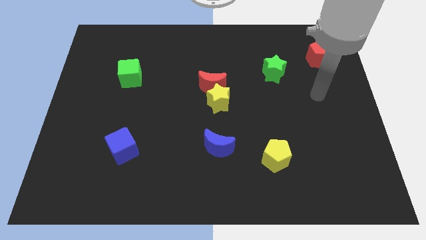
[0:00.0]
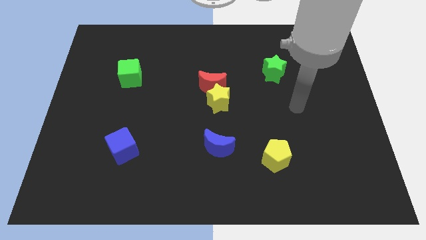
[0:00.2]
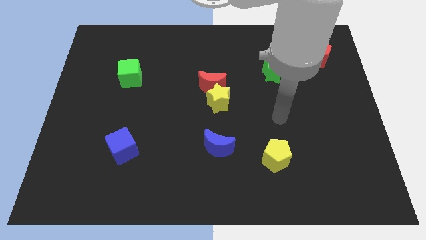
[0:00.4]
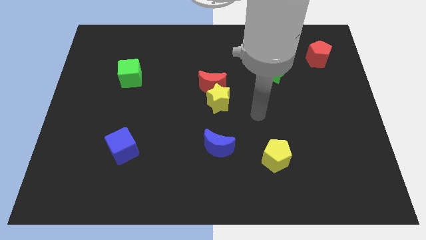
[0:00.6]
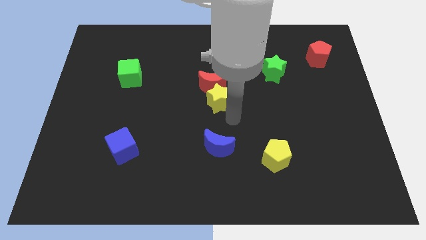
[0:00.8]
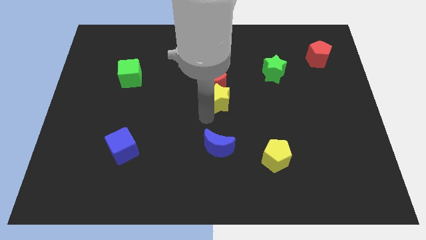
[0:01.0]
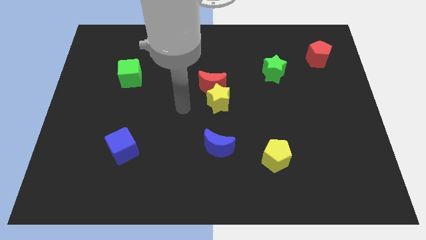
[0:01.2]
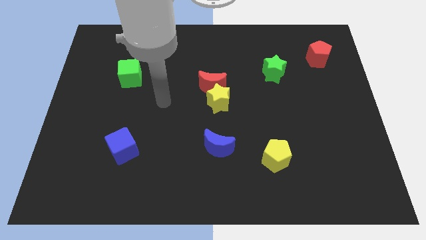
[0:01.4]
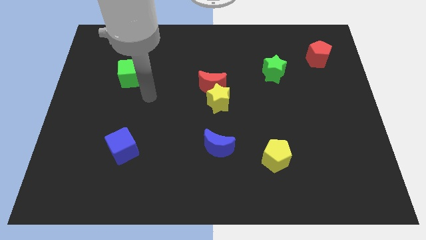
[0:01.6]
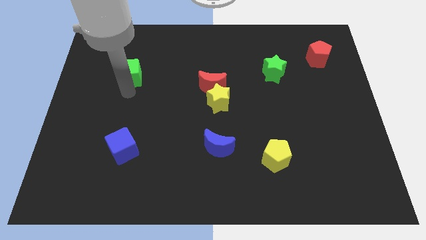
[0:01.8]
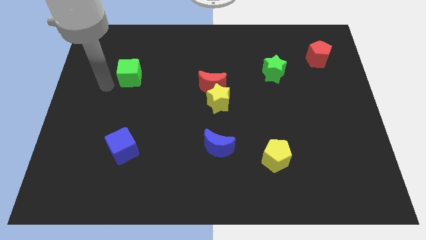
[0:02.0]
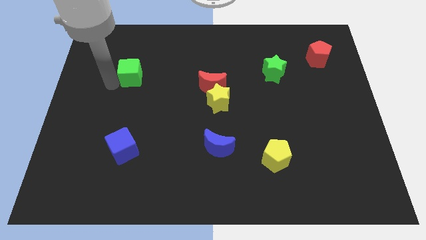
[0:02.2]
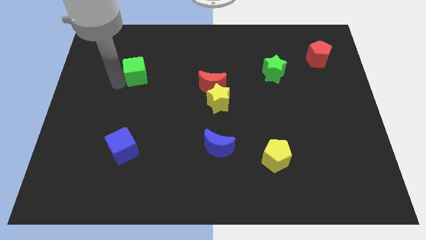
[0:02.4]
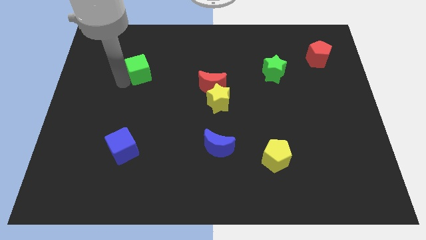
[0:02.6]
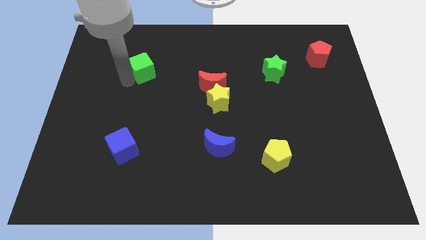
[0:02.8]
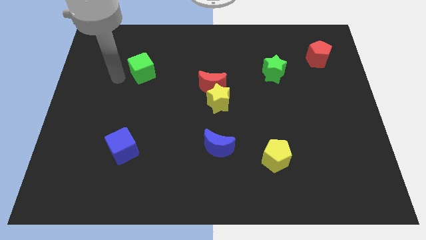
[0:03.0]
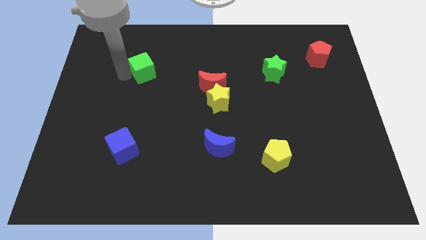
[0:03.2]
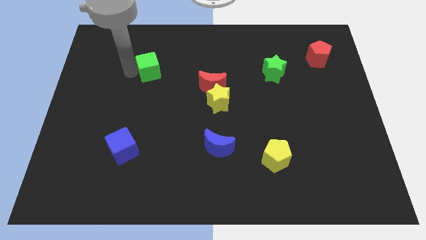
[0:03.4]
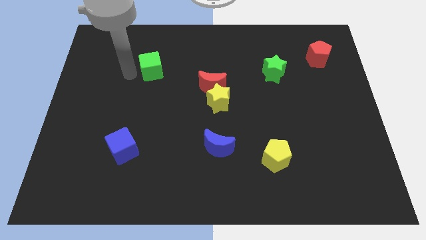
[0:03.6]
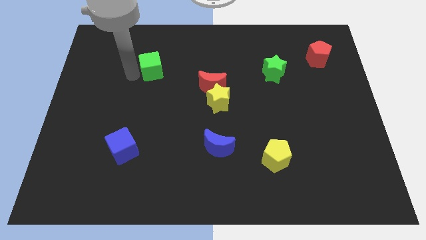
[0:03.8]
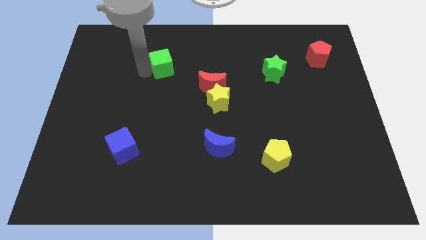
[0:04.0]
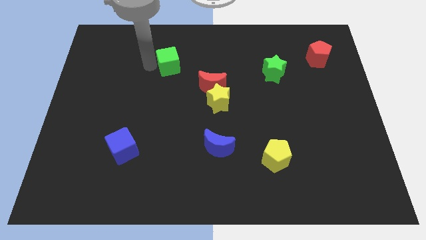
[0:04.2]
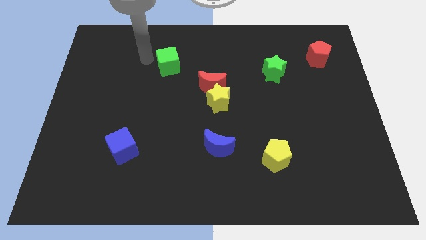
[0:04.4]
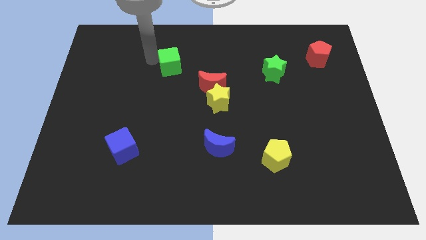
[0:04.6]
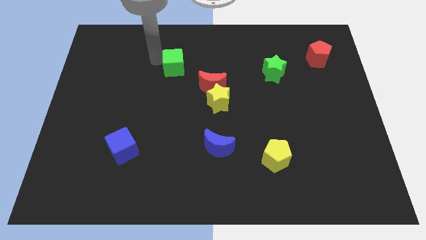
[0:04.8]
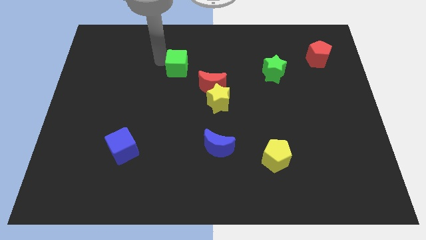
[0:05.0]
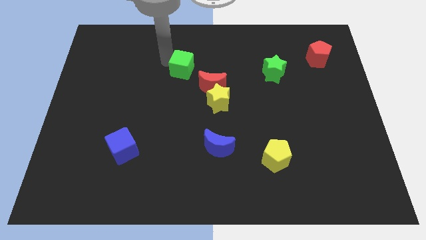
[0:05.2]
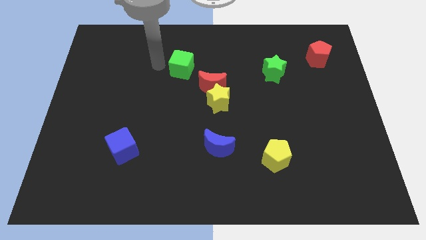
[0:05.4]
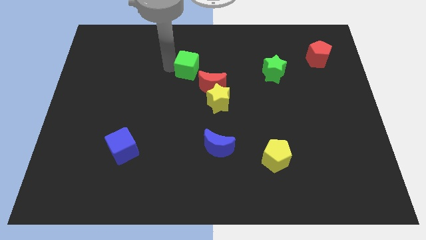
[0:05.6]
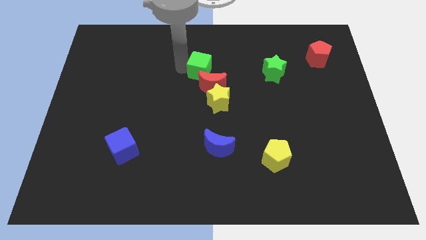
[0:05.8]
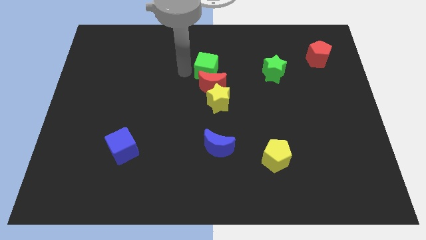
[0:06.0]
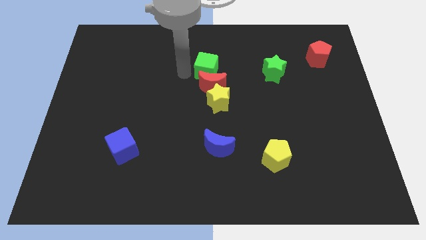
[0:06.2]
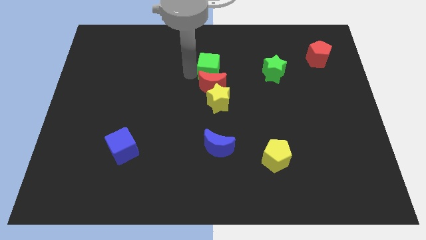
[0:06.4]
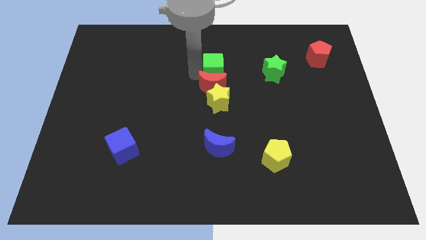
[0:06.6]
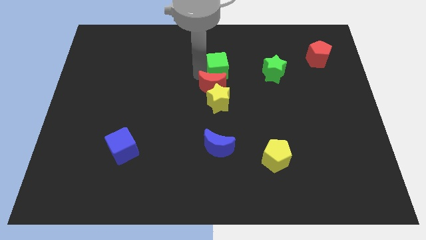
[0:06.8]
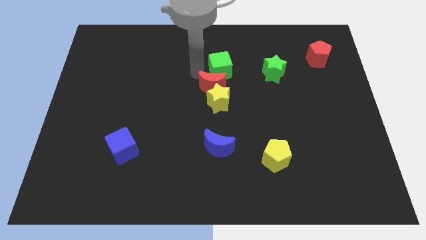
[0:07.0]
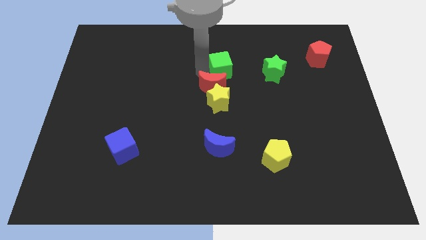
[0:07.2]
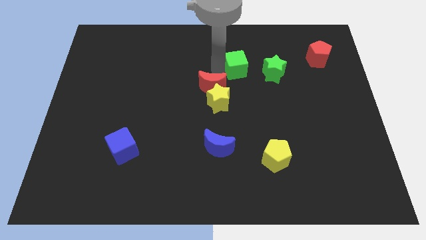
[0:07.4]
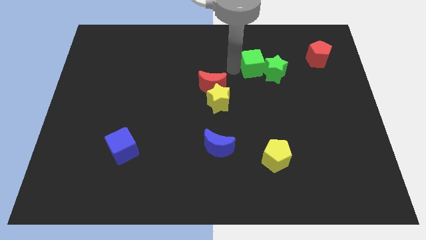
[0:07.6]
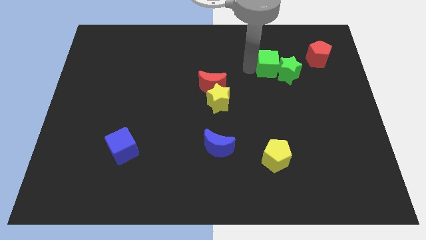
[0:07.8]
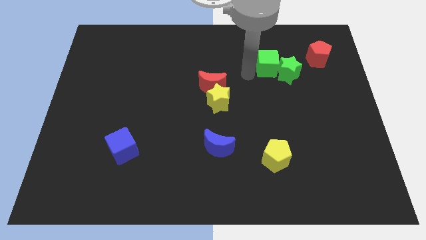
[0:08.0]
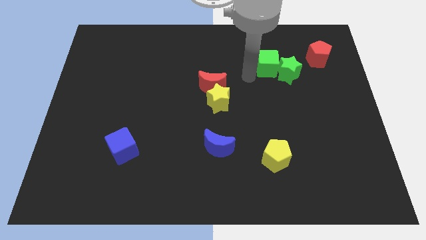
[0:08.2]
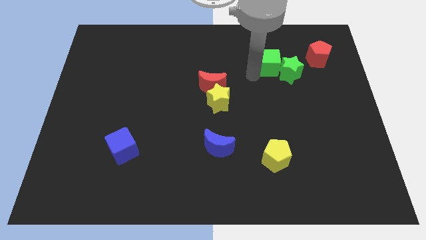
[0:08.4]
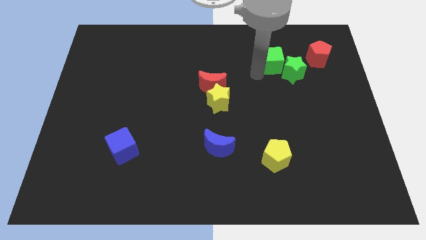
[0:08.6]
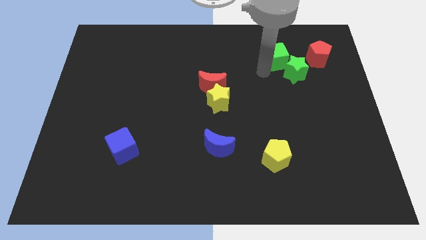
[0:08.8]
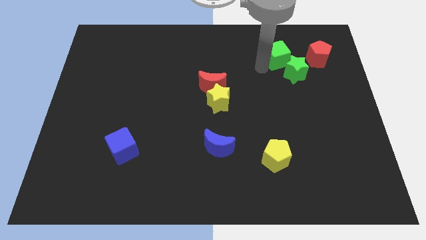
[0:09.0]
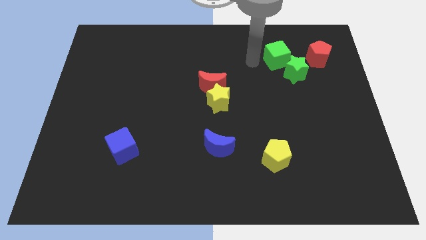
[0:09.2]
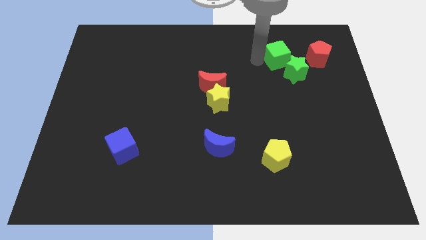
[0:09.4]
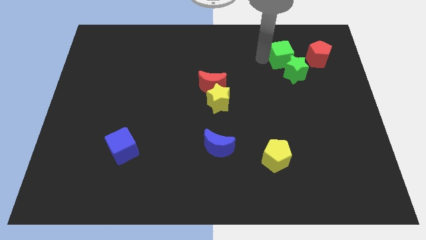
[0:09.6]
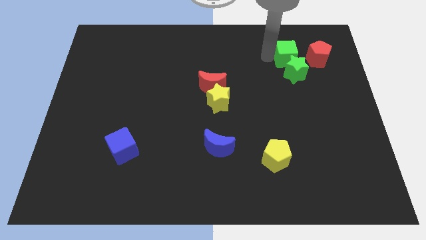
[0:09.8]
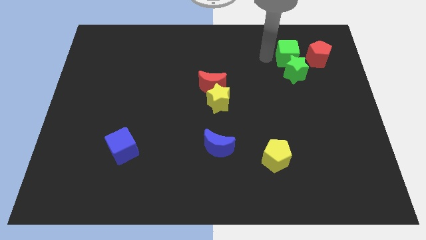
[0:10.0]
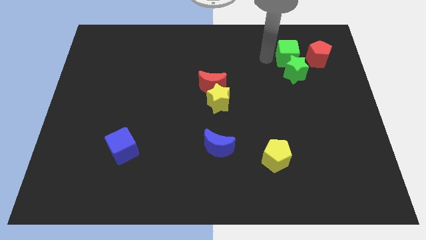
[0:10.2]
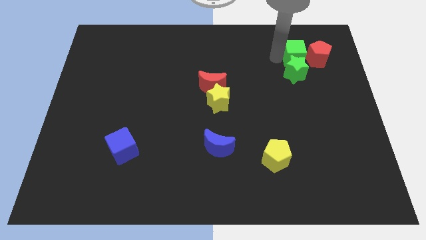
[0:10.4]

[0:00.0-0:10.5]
slide the green cube close to the red pentagon

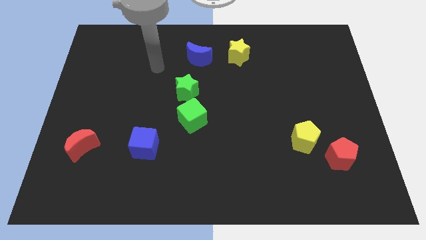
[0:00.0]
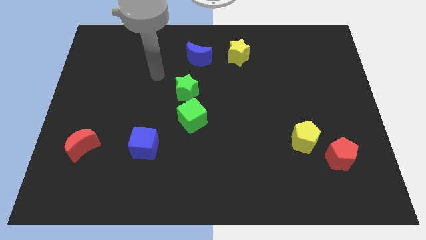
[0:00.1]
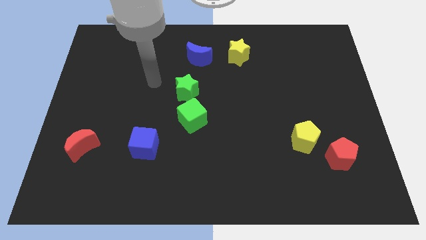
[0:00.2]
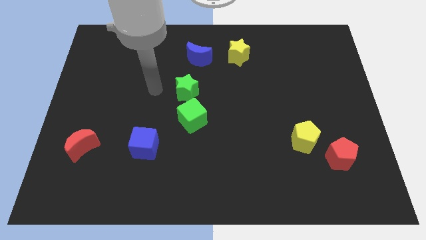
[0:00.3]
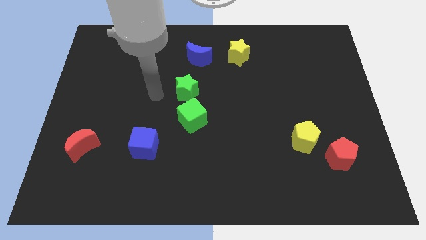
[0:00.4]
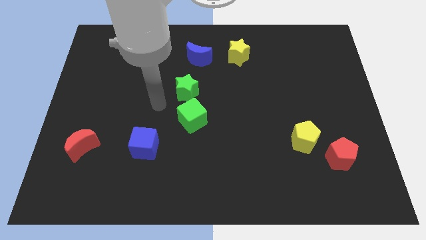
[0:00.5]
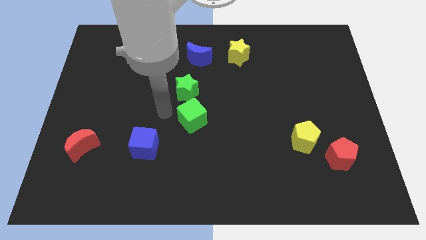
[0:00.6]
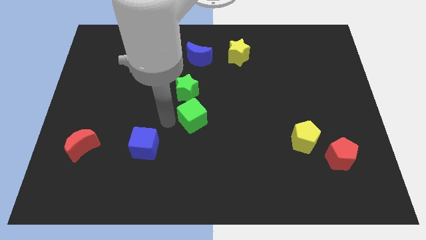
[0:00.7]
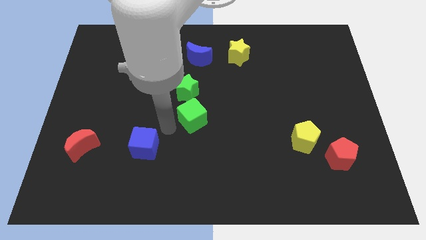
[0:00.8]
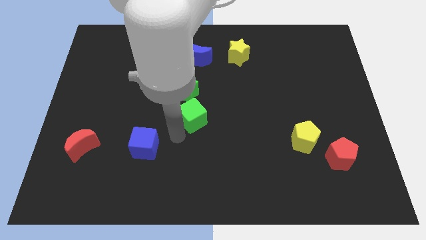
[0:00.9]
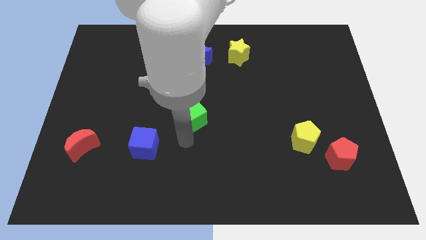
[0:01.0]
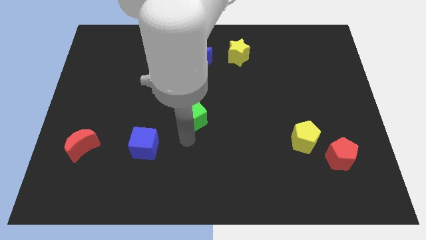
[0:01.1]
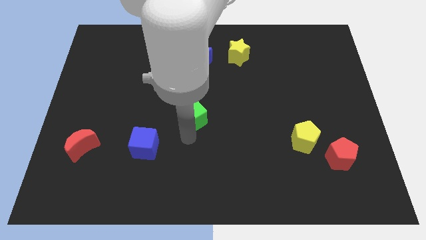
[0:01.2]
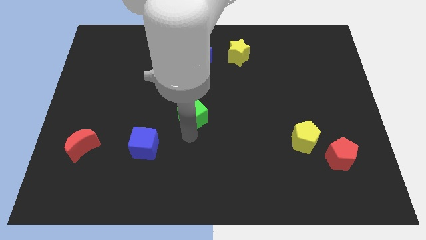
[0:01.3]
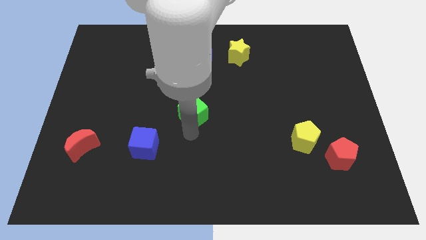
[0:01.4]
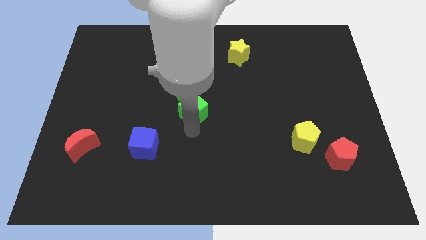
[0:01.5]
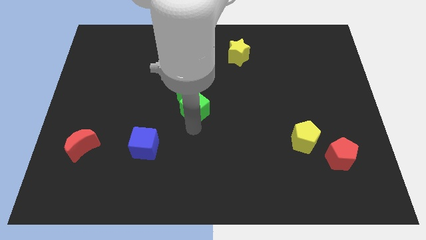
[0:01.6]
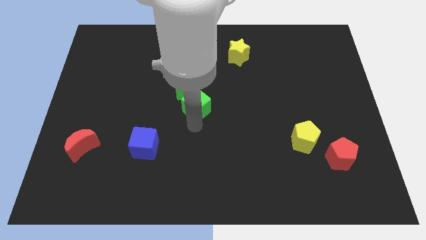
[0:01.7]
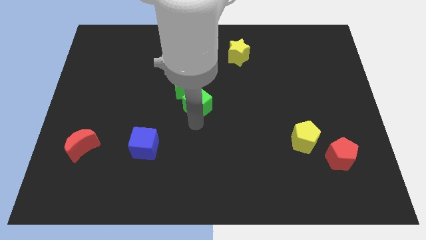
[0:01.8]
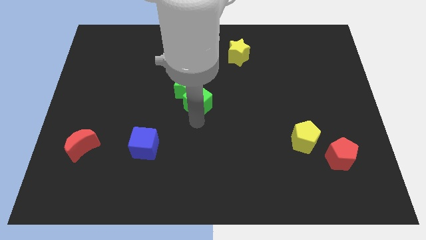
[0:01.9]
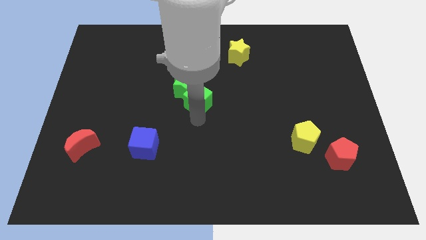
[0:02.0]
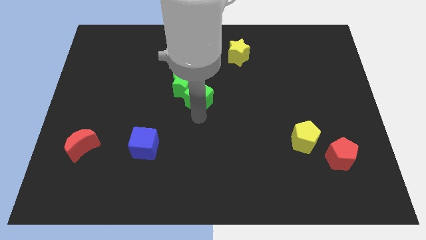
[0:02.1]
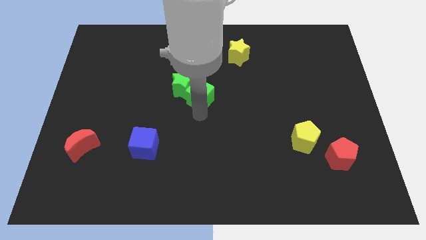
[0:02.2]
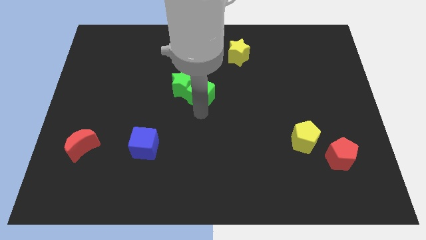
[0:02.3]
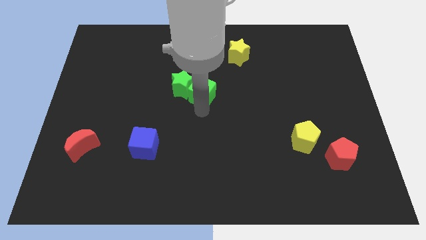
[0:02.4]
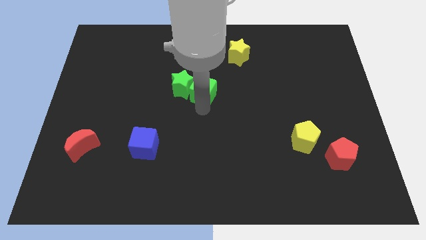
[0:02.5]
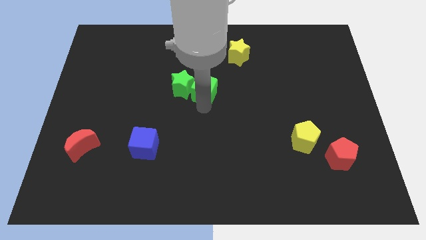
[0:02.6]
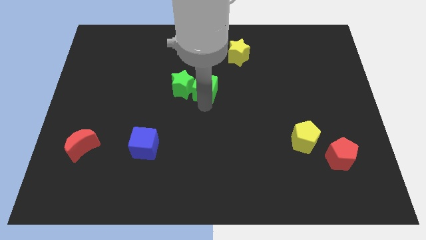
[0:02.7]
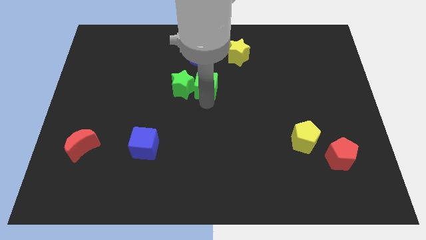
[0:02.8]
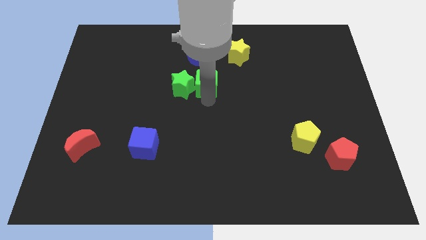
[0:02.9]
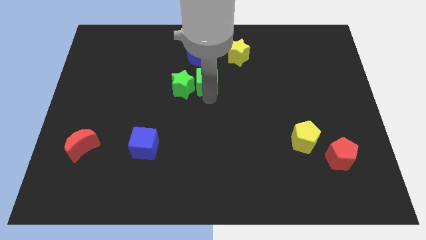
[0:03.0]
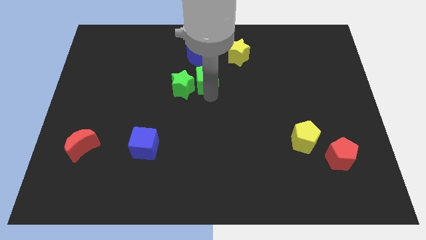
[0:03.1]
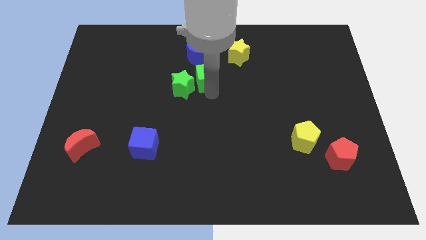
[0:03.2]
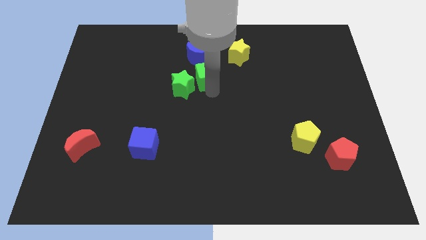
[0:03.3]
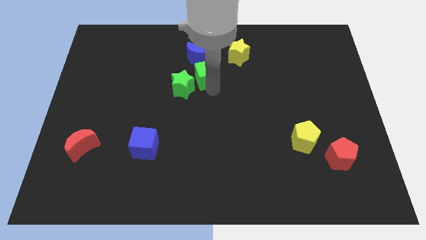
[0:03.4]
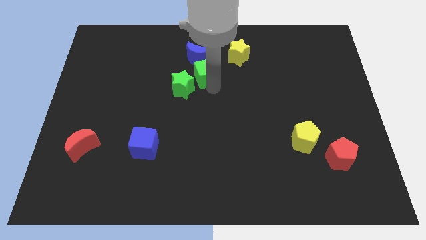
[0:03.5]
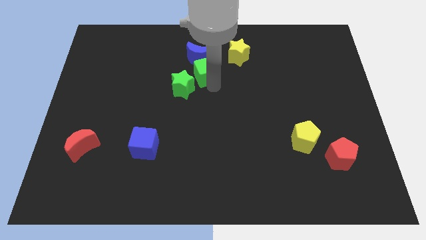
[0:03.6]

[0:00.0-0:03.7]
put the green cube towards the blue moon
